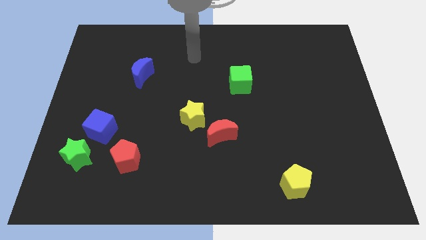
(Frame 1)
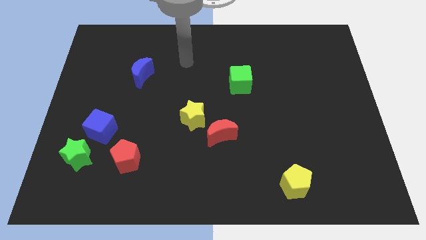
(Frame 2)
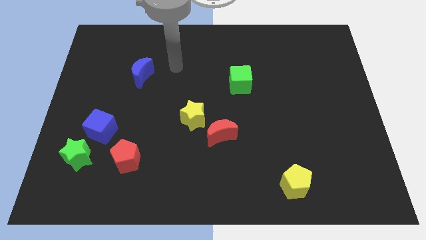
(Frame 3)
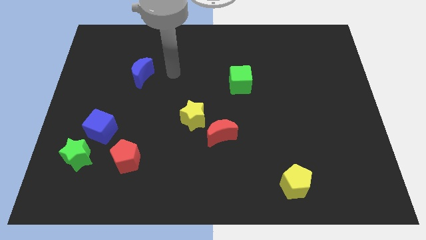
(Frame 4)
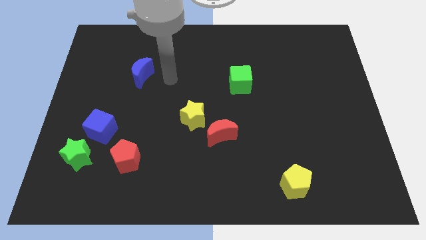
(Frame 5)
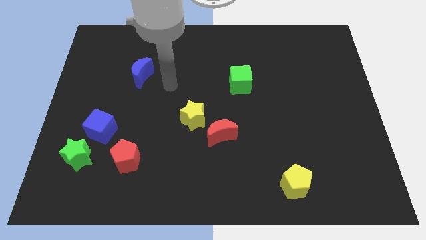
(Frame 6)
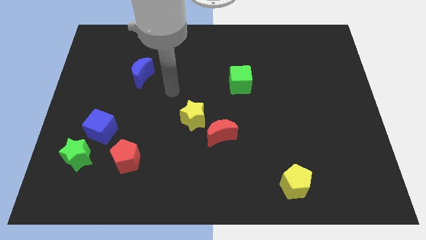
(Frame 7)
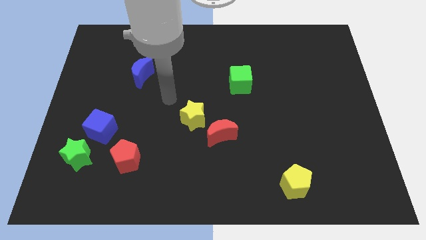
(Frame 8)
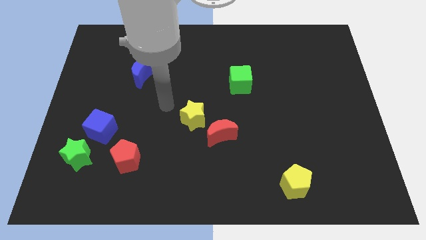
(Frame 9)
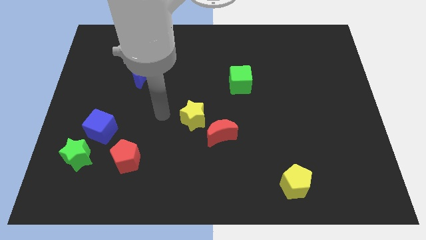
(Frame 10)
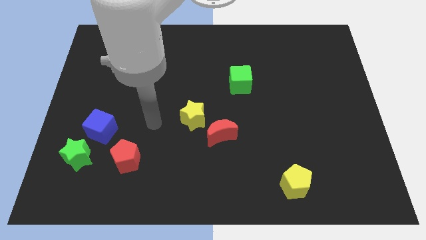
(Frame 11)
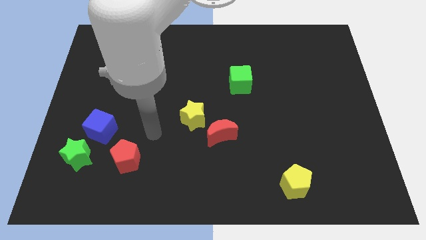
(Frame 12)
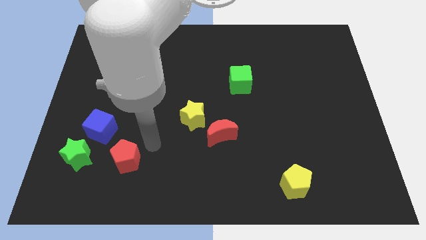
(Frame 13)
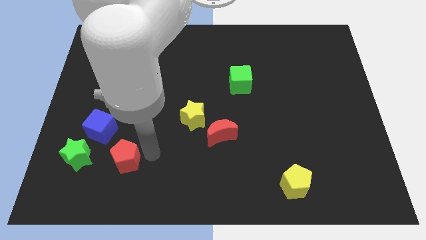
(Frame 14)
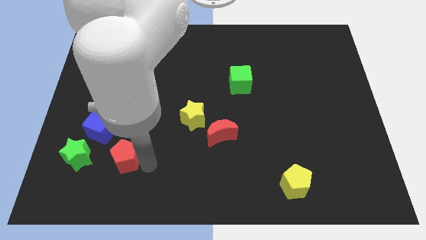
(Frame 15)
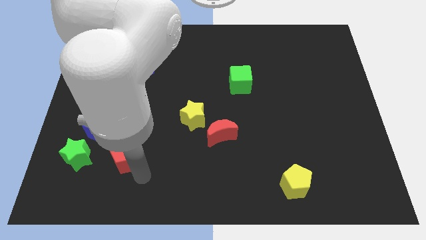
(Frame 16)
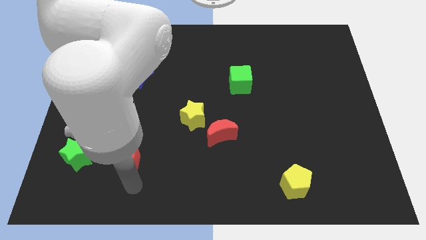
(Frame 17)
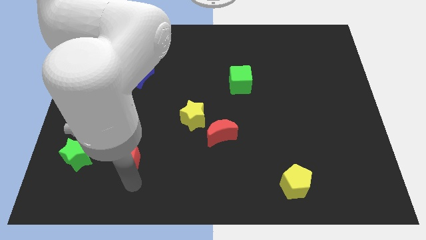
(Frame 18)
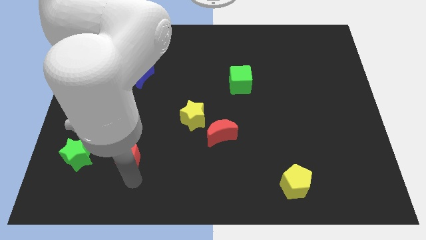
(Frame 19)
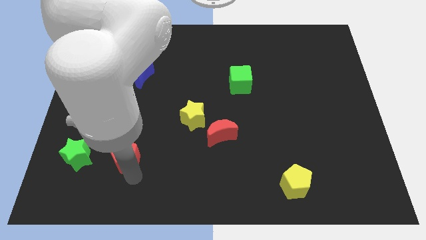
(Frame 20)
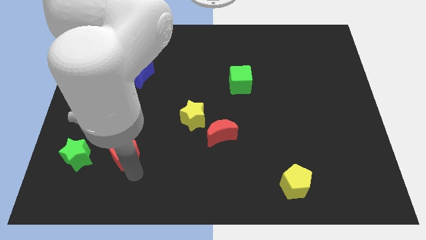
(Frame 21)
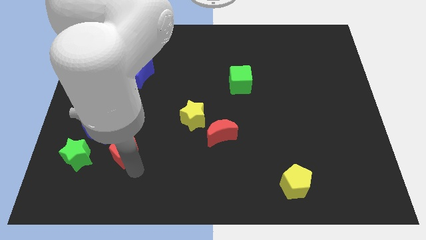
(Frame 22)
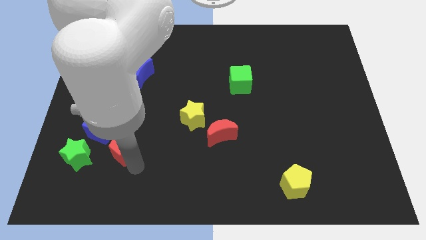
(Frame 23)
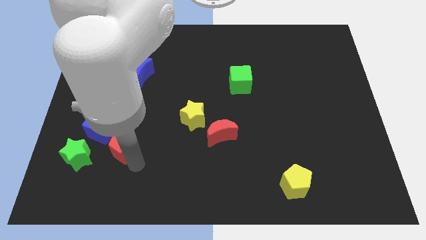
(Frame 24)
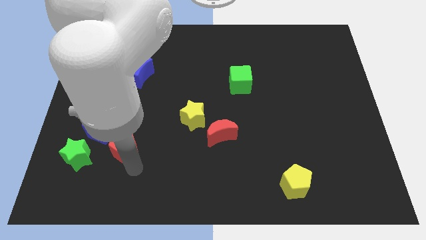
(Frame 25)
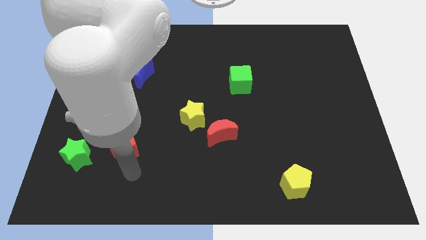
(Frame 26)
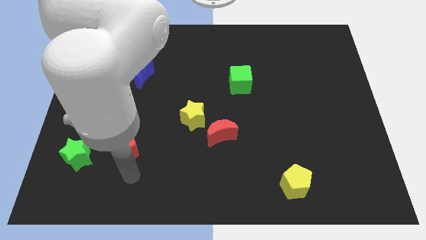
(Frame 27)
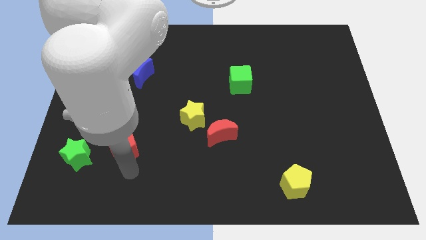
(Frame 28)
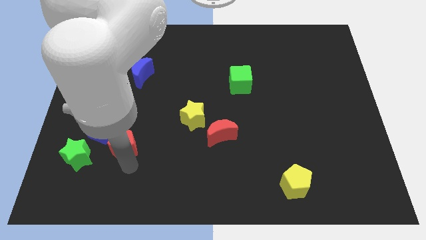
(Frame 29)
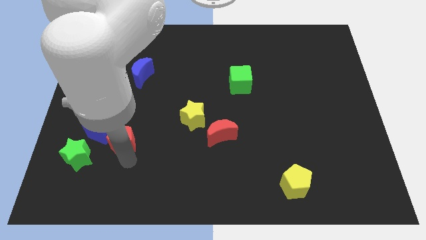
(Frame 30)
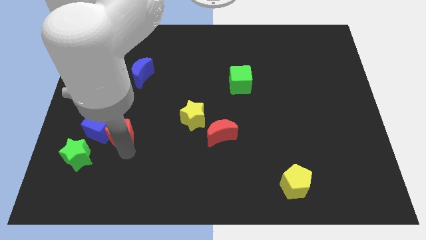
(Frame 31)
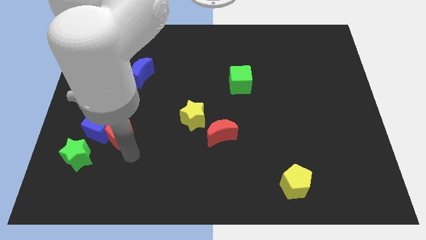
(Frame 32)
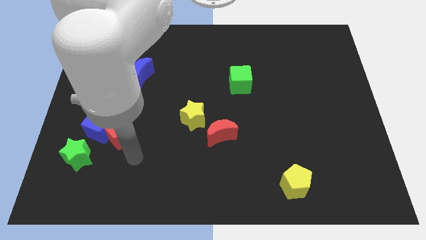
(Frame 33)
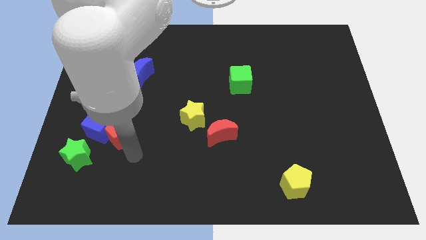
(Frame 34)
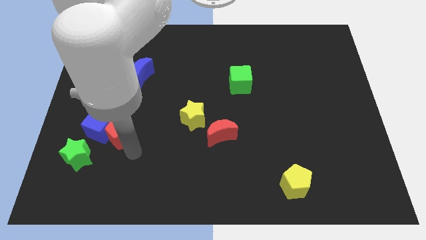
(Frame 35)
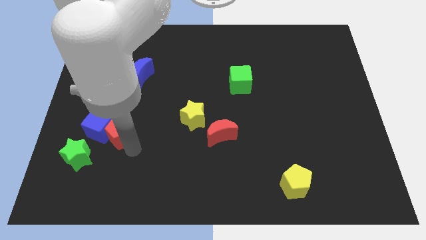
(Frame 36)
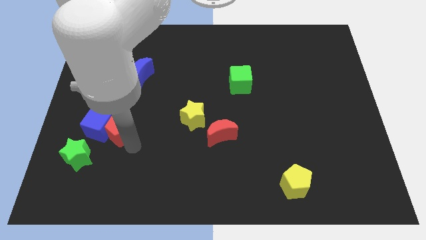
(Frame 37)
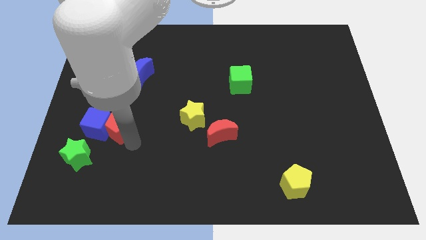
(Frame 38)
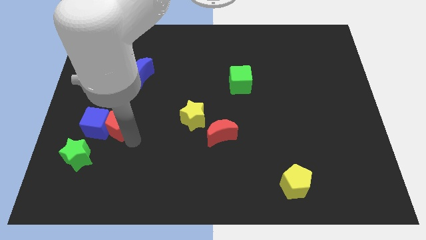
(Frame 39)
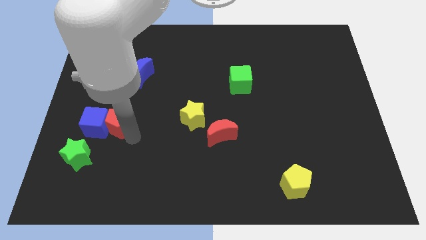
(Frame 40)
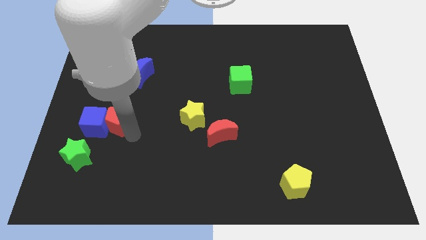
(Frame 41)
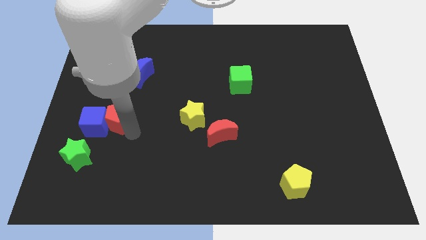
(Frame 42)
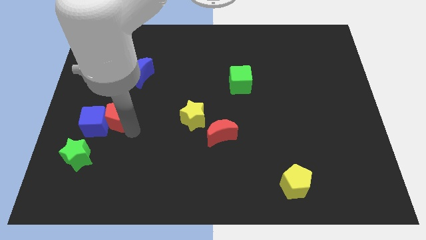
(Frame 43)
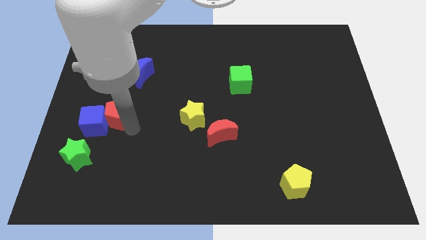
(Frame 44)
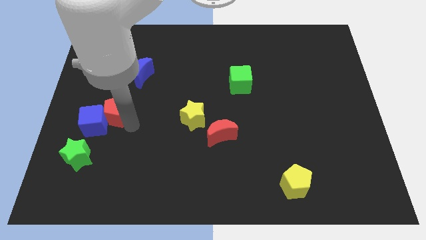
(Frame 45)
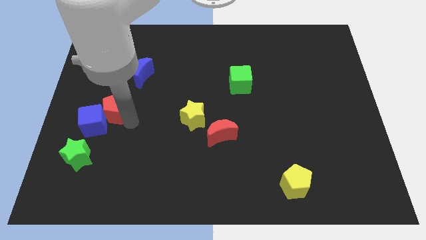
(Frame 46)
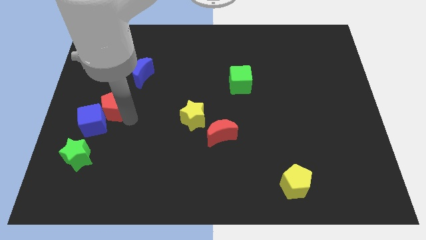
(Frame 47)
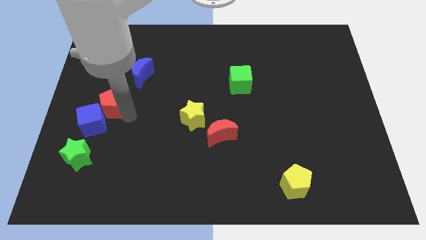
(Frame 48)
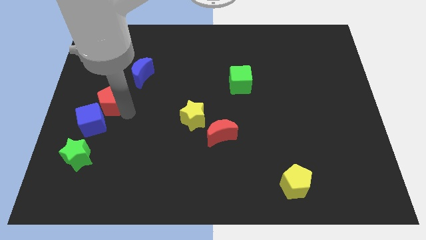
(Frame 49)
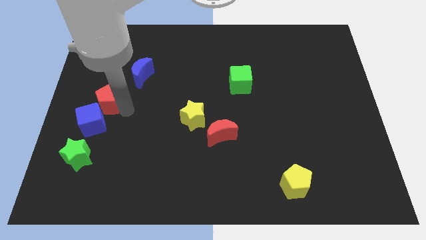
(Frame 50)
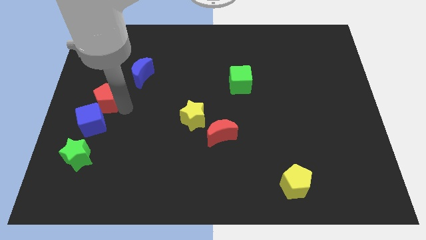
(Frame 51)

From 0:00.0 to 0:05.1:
put the red pentagon to the left side of the board

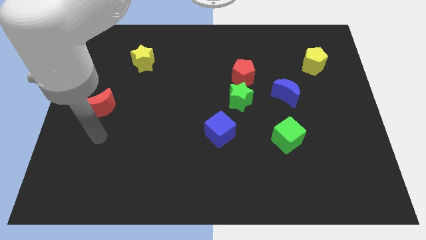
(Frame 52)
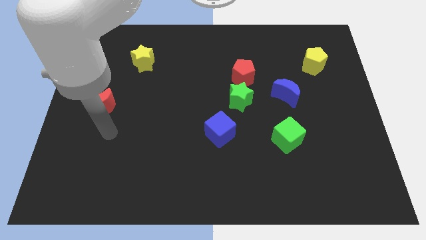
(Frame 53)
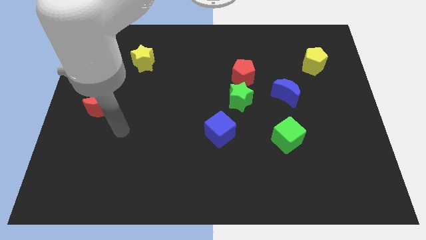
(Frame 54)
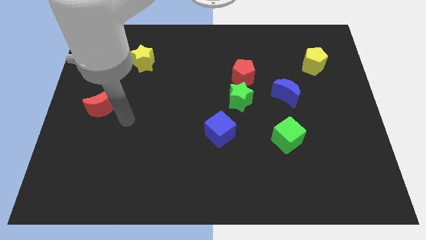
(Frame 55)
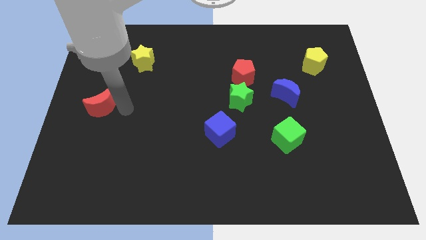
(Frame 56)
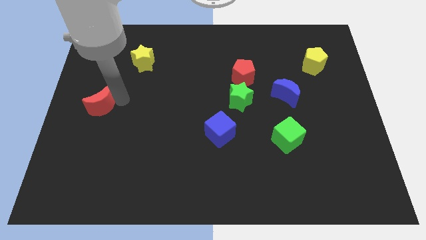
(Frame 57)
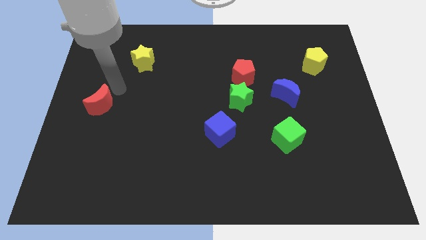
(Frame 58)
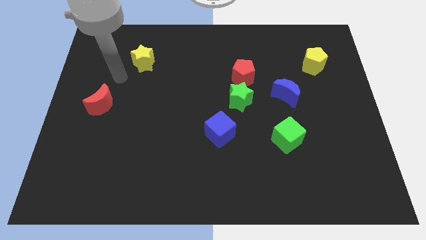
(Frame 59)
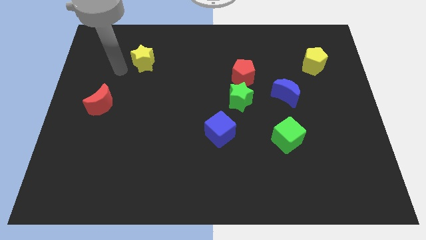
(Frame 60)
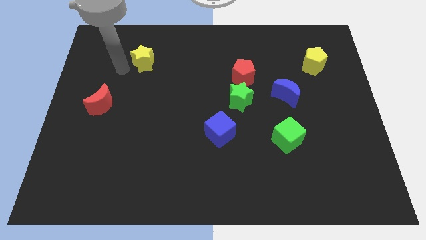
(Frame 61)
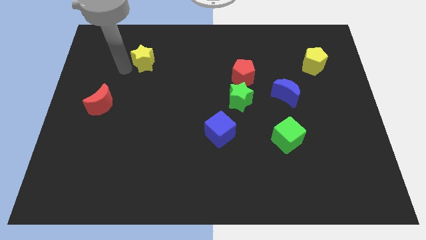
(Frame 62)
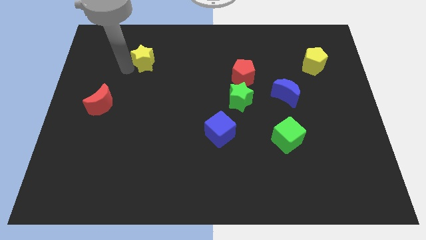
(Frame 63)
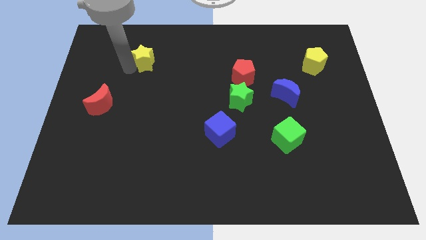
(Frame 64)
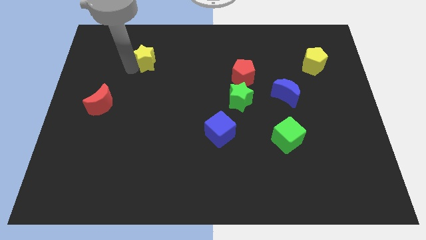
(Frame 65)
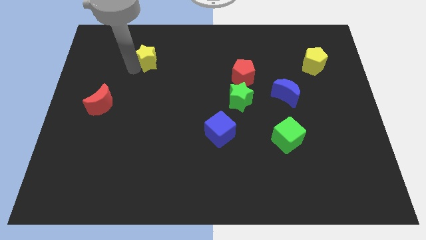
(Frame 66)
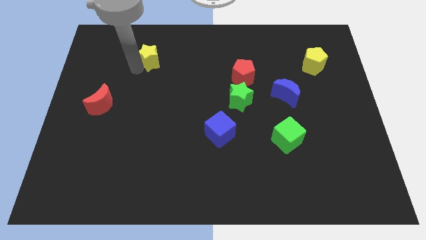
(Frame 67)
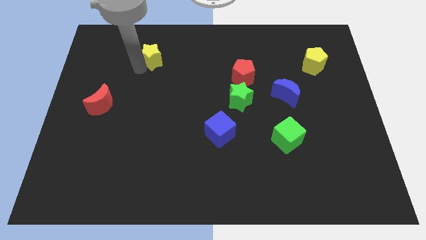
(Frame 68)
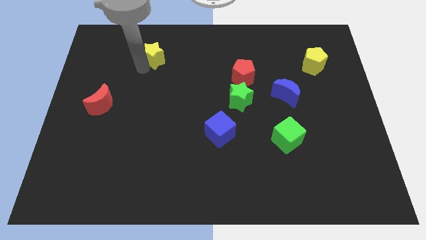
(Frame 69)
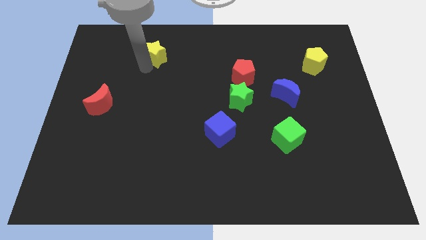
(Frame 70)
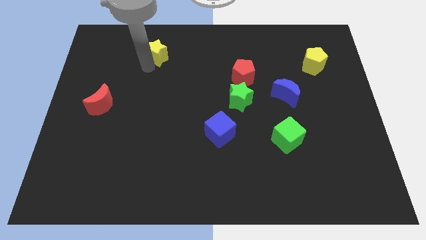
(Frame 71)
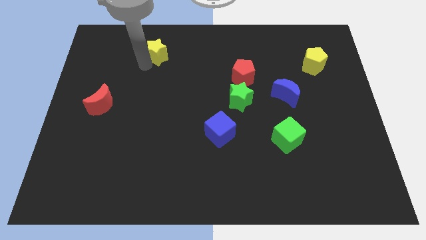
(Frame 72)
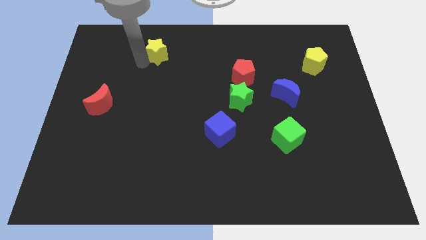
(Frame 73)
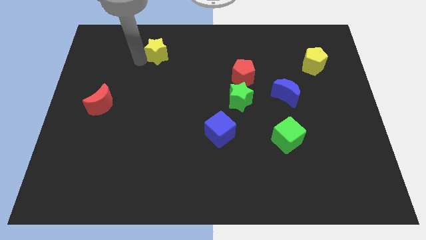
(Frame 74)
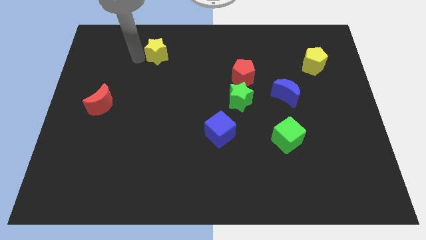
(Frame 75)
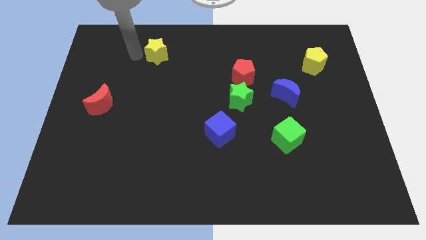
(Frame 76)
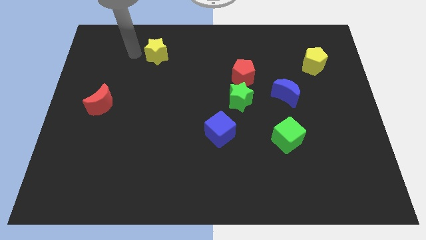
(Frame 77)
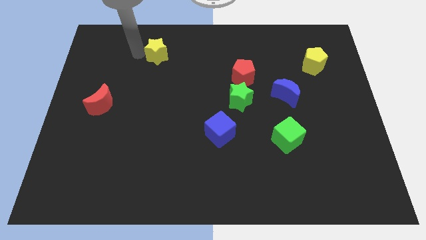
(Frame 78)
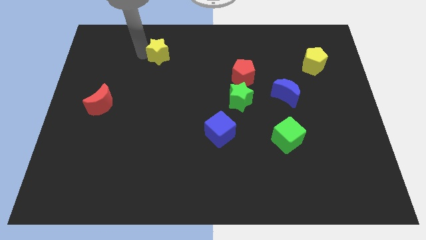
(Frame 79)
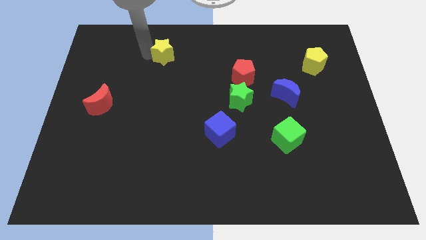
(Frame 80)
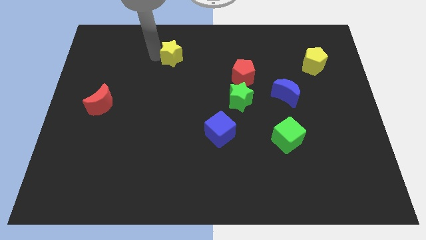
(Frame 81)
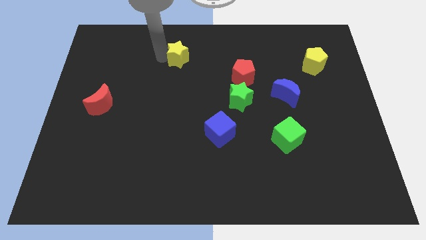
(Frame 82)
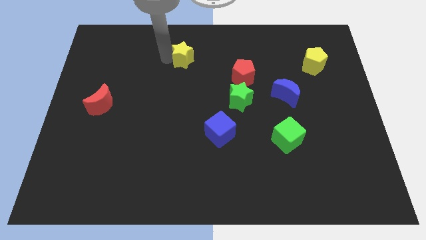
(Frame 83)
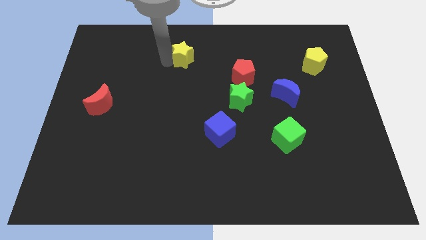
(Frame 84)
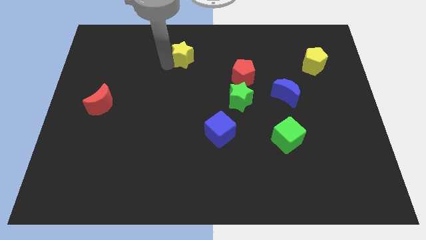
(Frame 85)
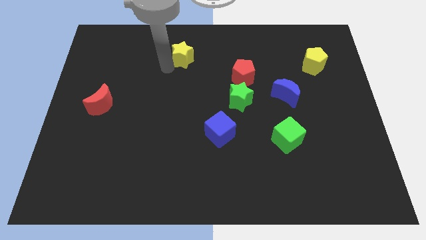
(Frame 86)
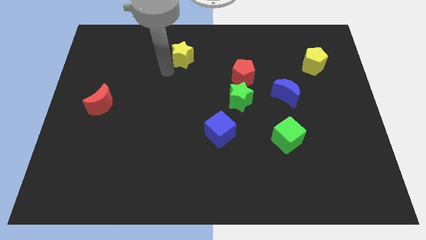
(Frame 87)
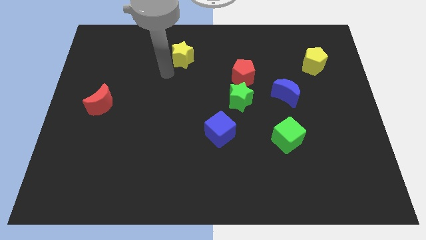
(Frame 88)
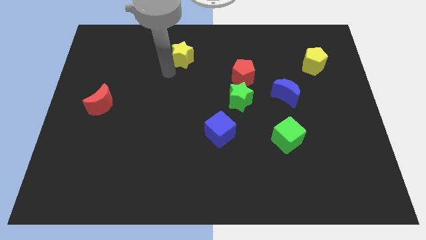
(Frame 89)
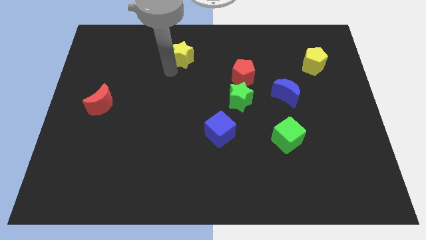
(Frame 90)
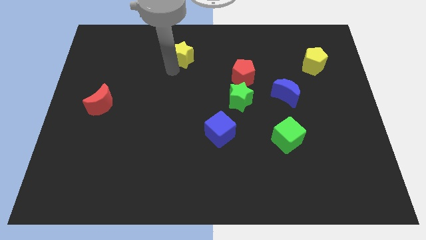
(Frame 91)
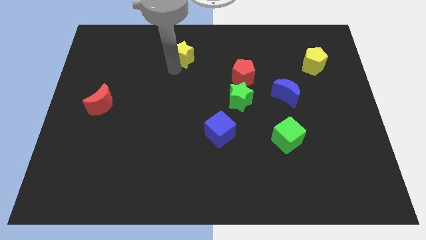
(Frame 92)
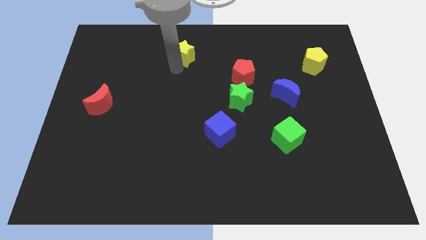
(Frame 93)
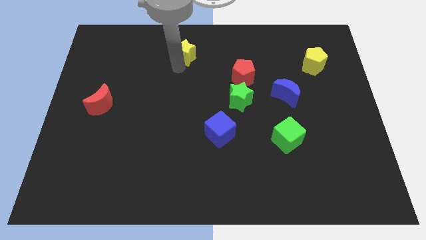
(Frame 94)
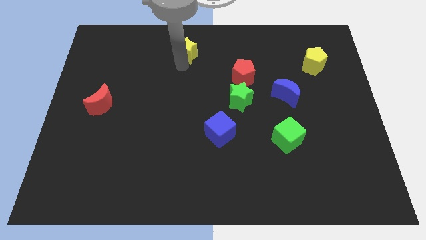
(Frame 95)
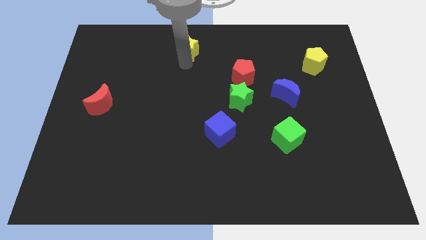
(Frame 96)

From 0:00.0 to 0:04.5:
put the yellow star to the top
